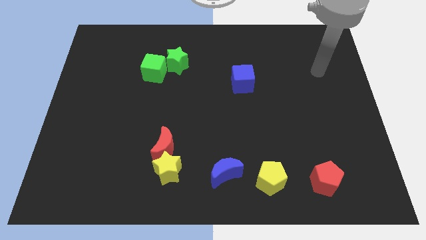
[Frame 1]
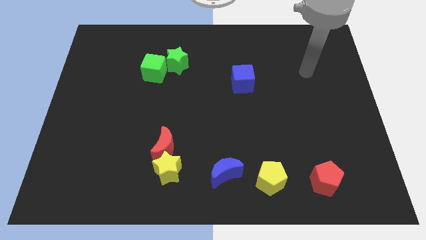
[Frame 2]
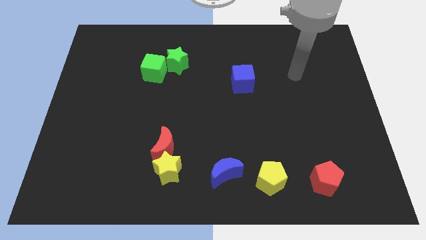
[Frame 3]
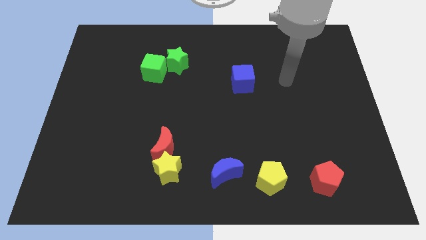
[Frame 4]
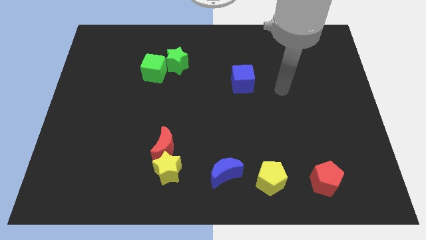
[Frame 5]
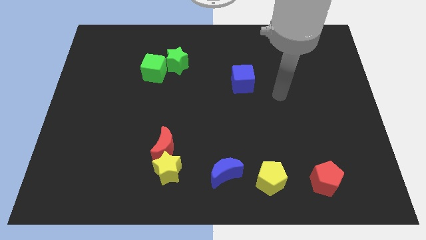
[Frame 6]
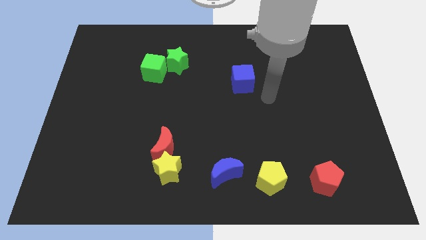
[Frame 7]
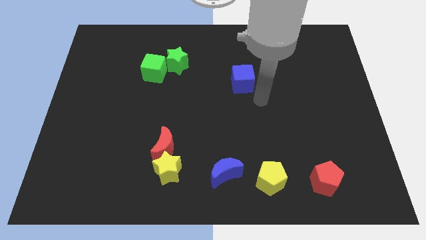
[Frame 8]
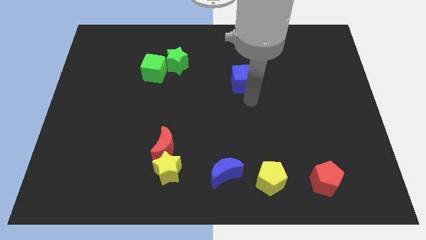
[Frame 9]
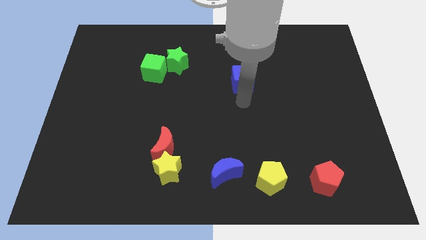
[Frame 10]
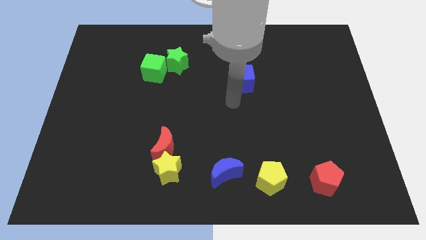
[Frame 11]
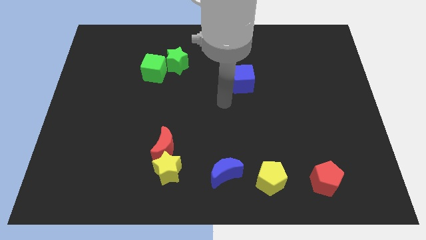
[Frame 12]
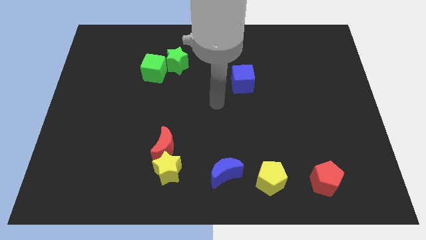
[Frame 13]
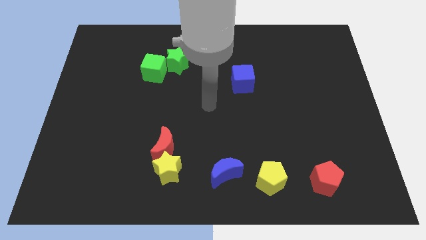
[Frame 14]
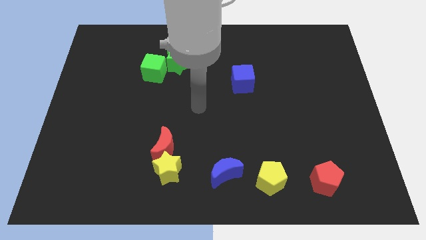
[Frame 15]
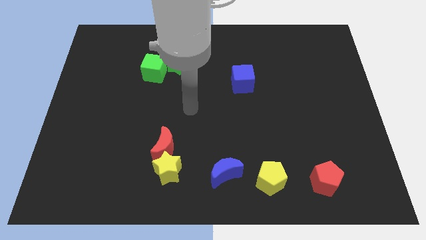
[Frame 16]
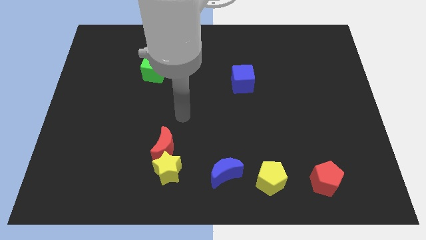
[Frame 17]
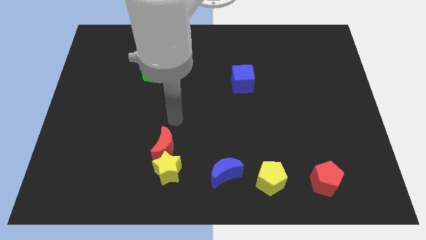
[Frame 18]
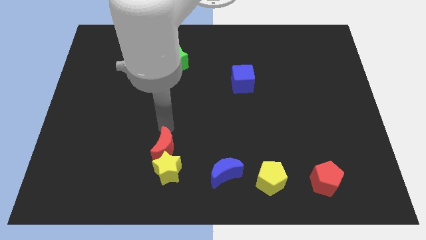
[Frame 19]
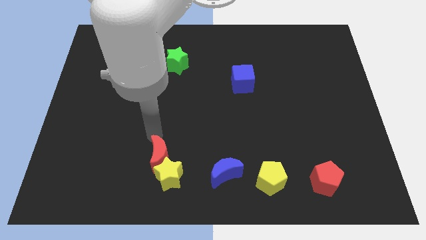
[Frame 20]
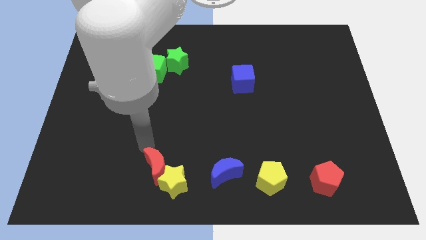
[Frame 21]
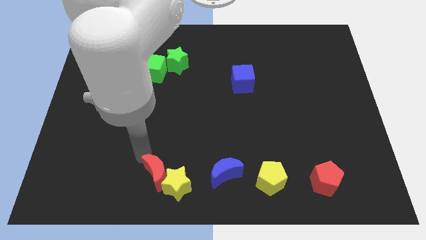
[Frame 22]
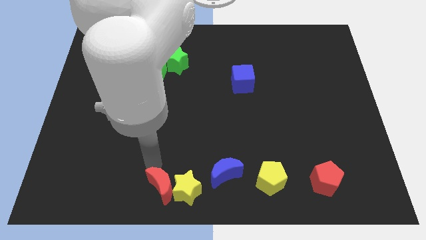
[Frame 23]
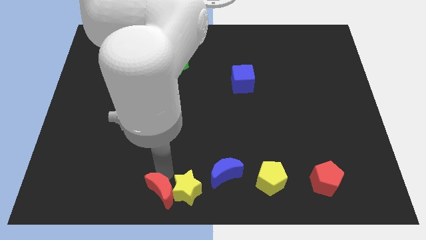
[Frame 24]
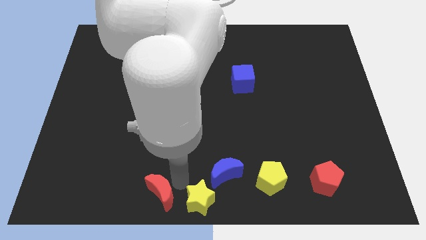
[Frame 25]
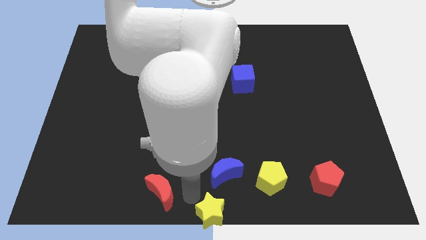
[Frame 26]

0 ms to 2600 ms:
move the red moon away from the yellow star

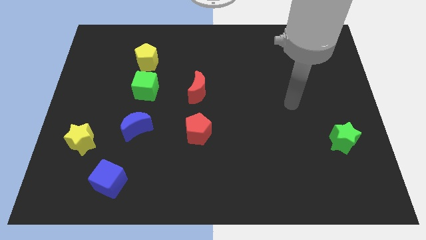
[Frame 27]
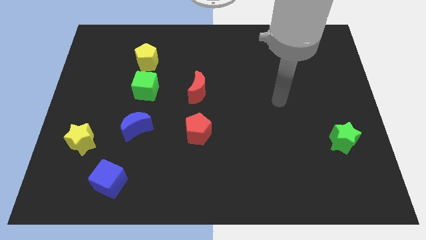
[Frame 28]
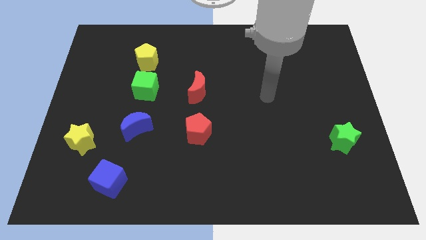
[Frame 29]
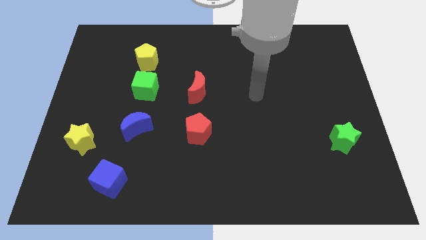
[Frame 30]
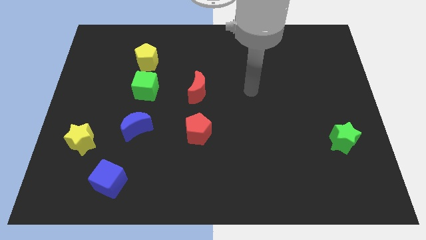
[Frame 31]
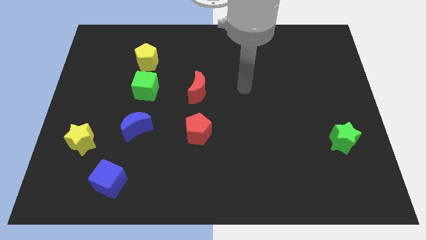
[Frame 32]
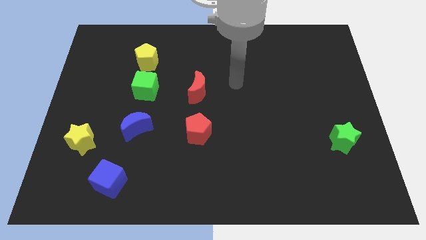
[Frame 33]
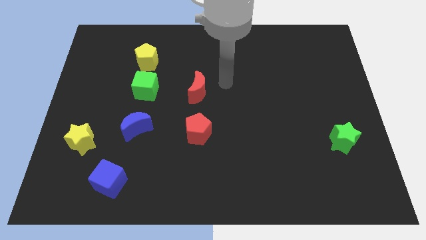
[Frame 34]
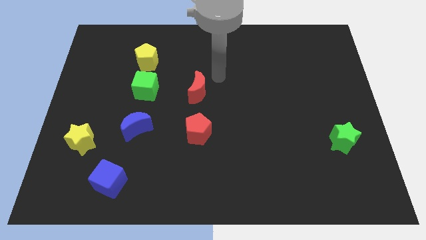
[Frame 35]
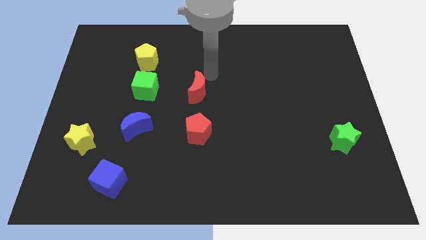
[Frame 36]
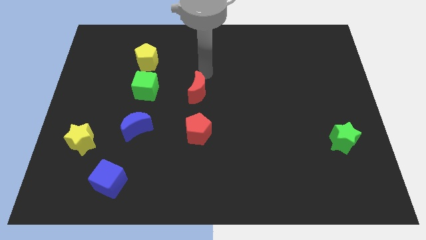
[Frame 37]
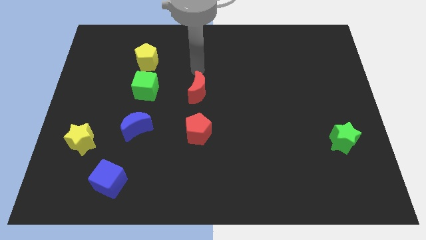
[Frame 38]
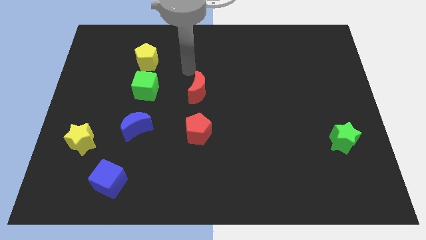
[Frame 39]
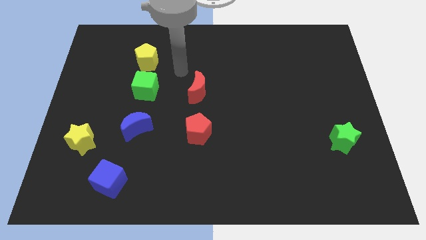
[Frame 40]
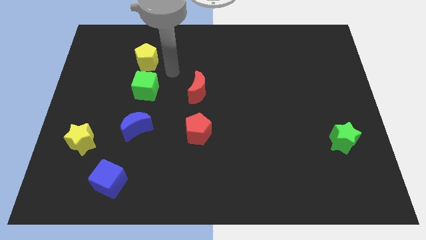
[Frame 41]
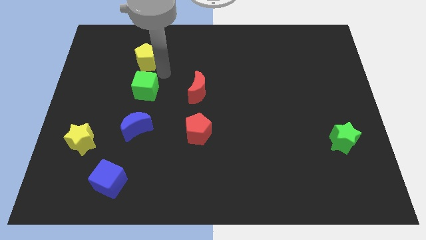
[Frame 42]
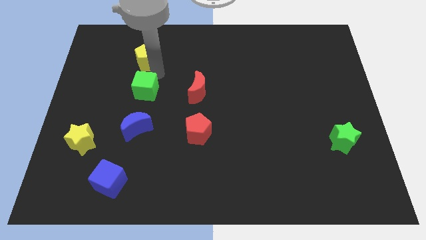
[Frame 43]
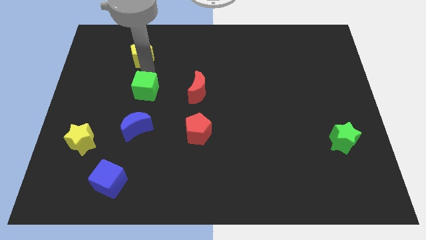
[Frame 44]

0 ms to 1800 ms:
move the green cube away from the yellow pentagon

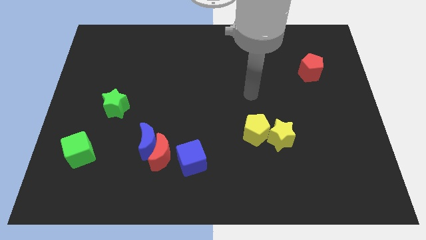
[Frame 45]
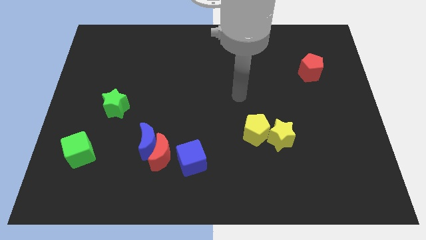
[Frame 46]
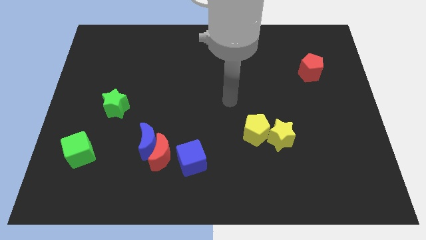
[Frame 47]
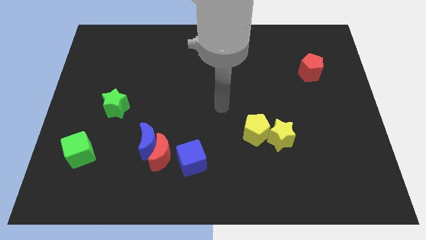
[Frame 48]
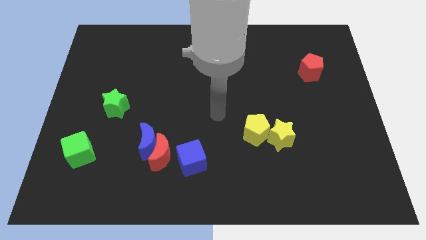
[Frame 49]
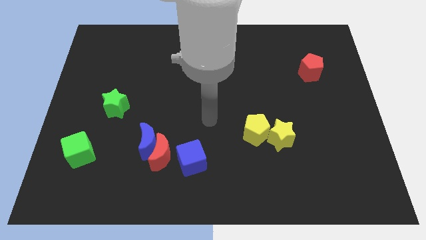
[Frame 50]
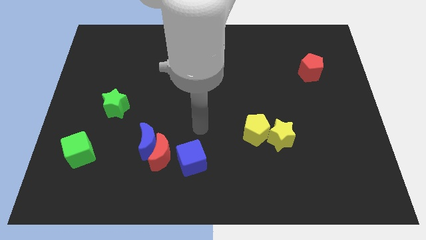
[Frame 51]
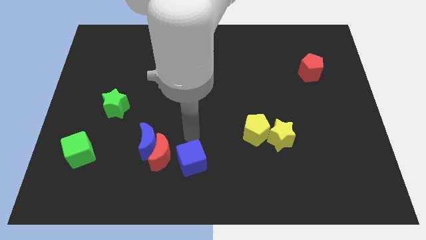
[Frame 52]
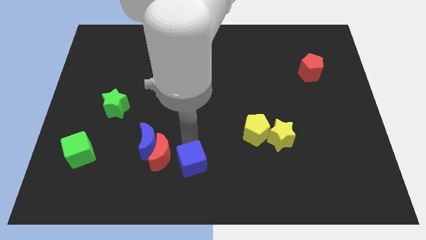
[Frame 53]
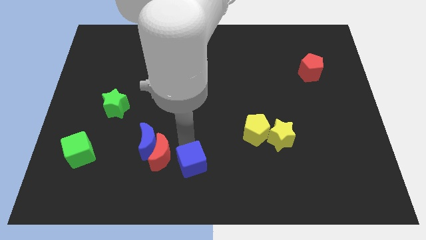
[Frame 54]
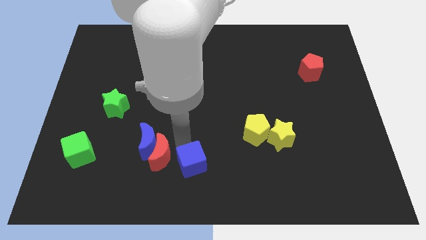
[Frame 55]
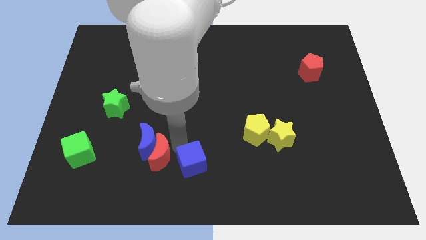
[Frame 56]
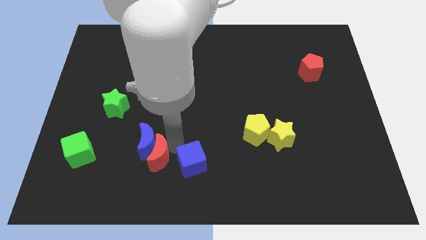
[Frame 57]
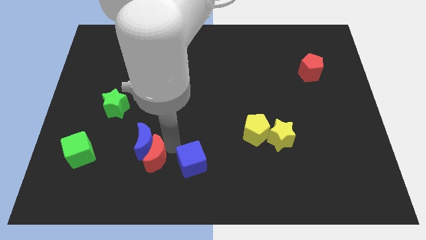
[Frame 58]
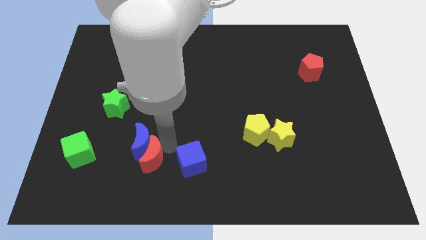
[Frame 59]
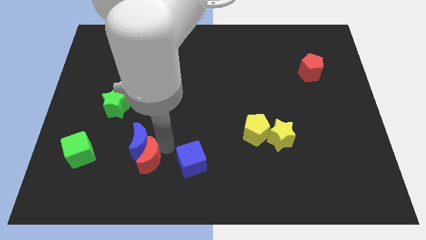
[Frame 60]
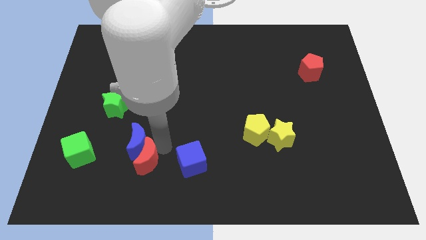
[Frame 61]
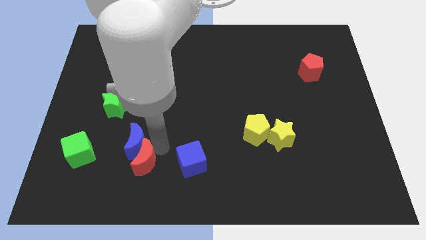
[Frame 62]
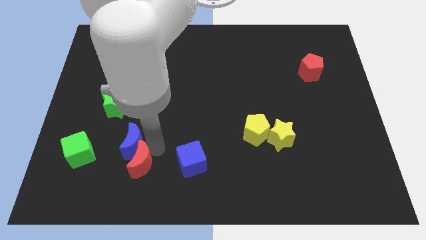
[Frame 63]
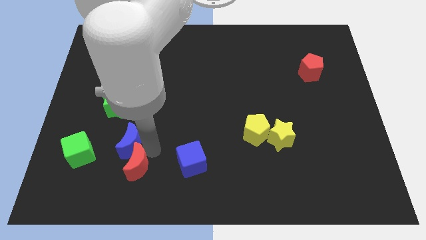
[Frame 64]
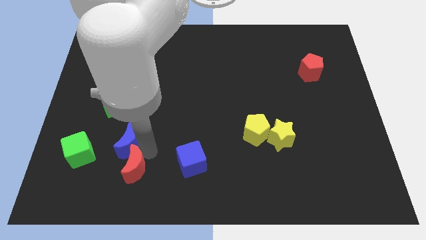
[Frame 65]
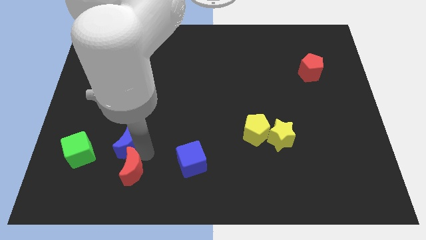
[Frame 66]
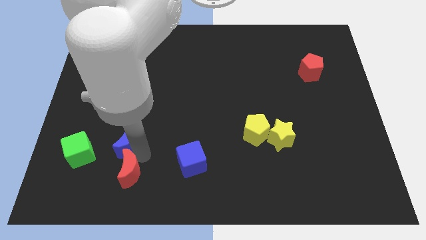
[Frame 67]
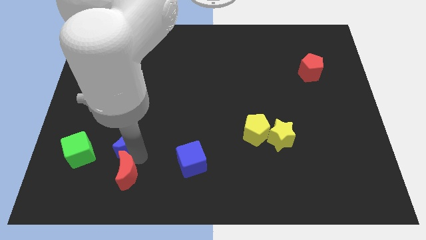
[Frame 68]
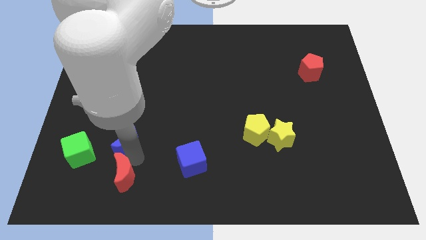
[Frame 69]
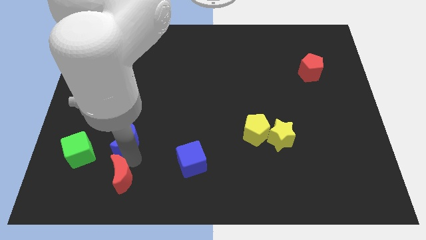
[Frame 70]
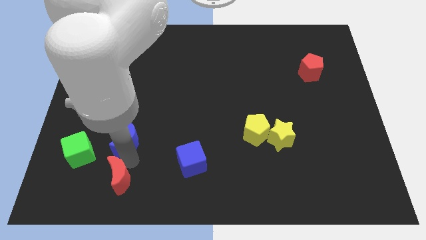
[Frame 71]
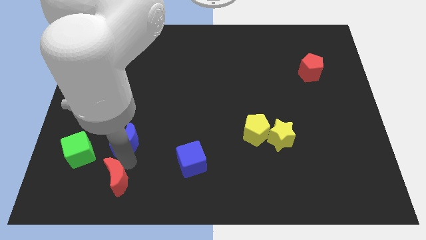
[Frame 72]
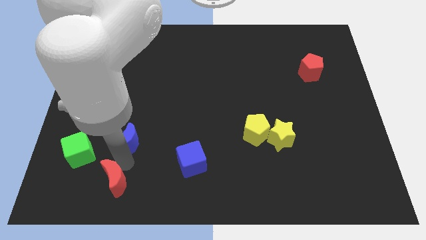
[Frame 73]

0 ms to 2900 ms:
pull the red moon apart from the blue moon and blue cube

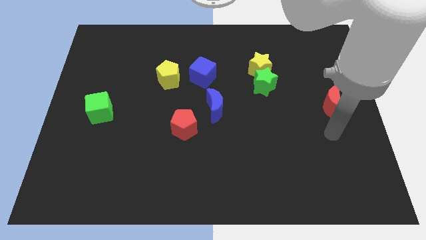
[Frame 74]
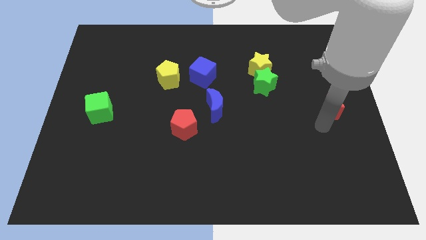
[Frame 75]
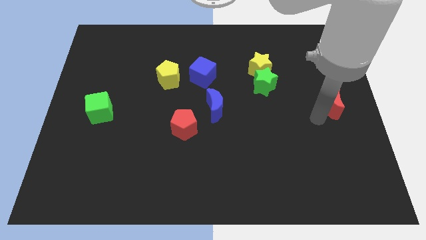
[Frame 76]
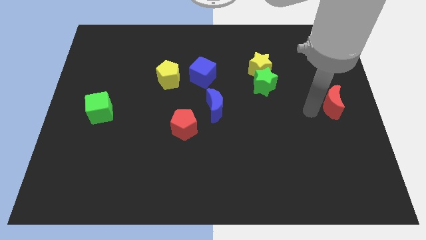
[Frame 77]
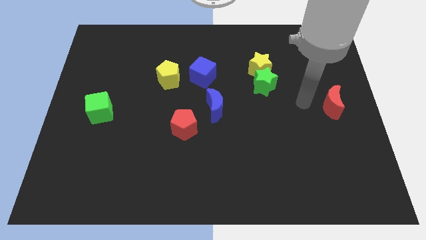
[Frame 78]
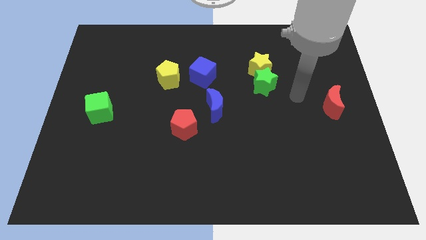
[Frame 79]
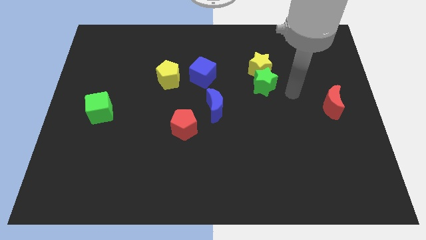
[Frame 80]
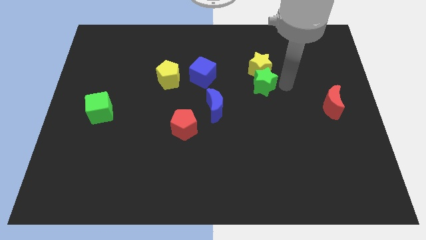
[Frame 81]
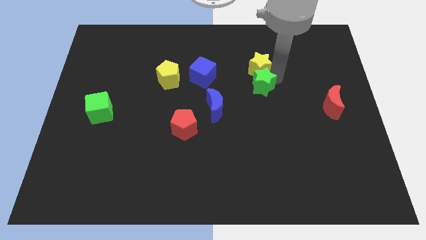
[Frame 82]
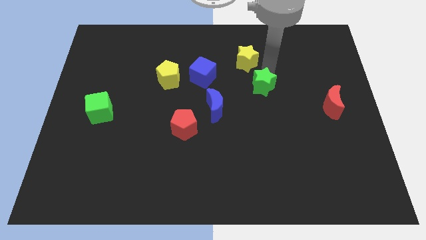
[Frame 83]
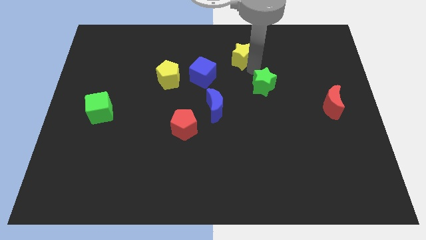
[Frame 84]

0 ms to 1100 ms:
pull the green star apart from the yellow star

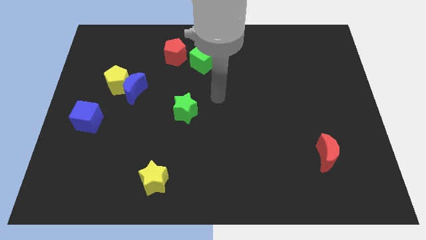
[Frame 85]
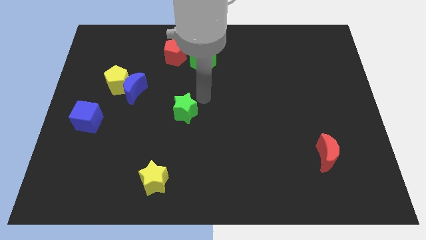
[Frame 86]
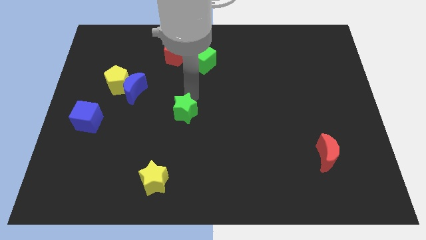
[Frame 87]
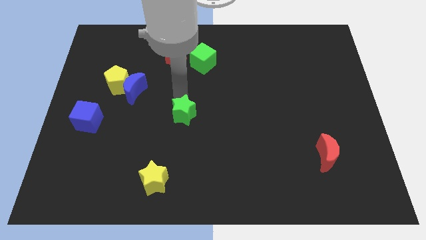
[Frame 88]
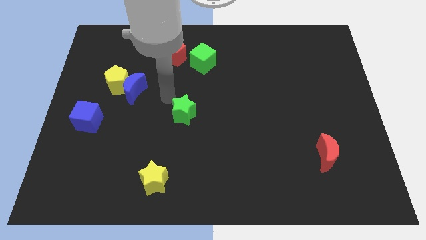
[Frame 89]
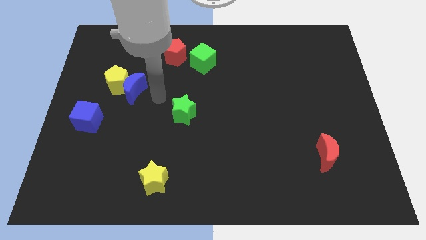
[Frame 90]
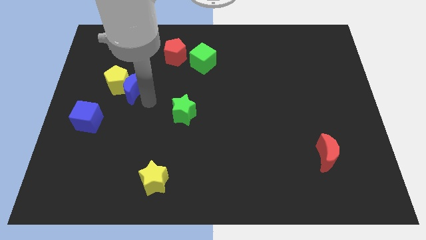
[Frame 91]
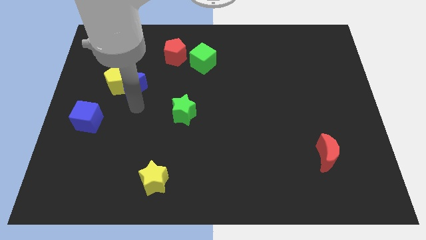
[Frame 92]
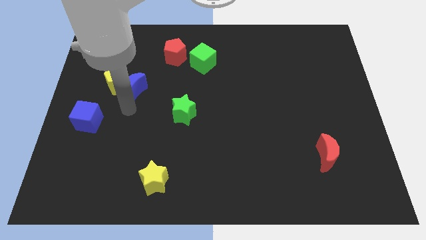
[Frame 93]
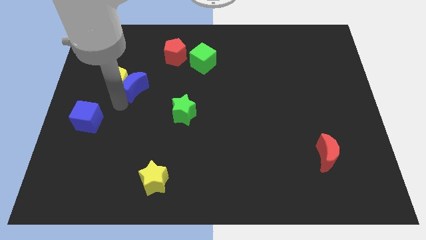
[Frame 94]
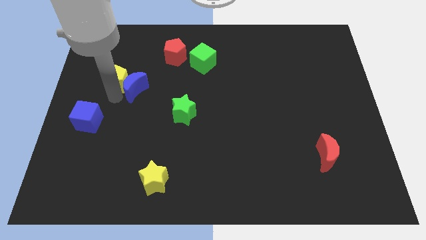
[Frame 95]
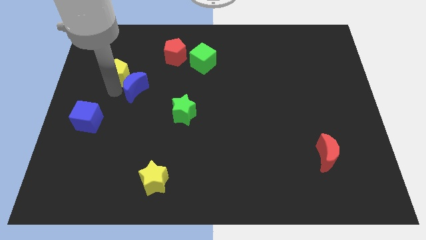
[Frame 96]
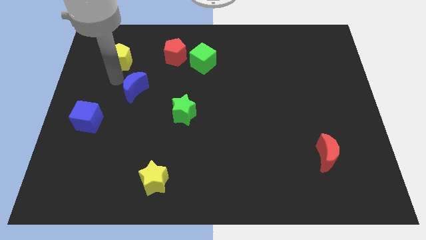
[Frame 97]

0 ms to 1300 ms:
separate the blue moon from the yellow pentagon
